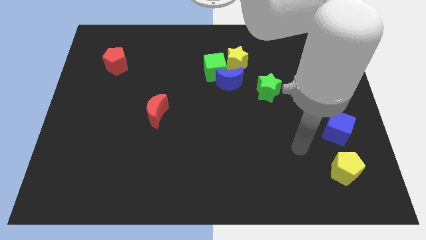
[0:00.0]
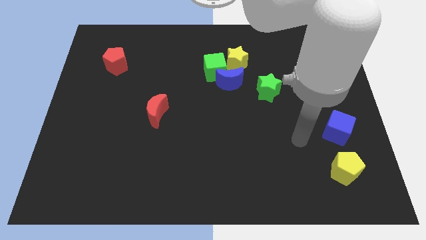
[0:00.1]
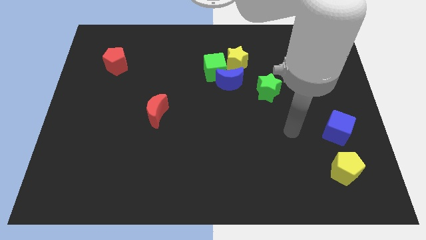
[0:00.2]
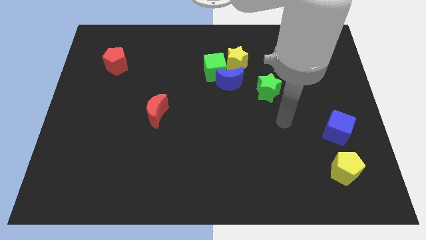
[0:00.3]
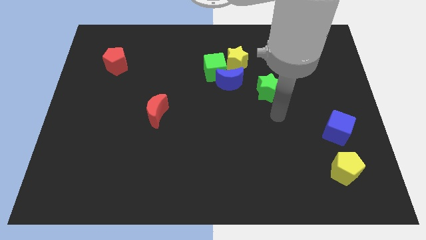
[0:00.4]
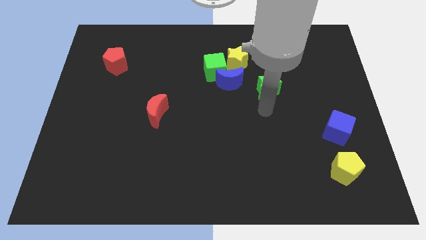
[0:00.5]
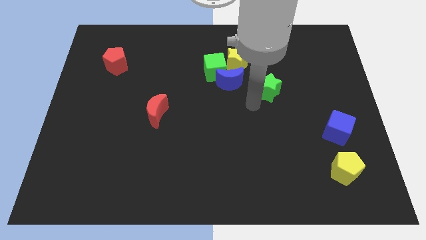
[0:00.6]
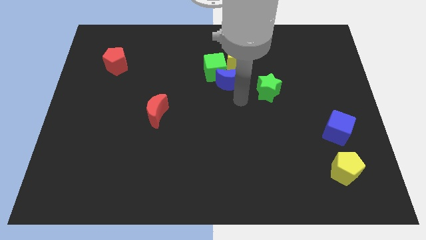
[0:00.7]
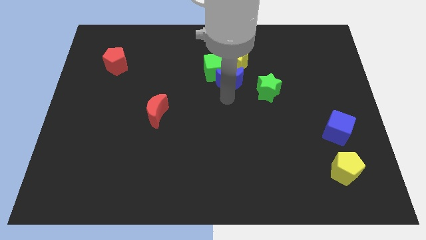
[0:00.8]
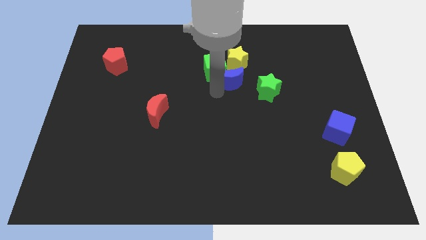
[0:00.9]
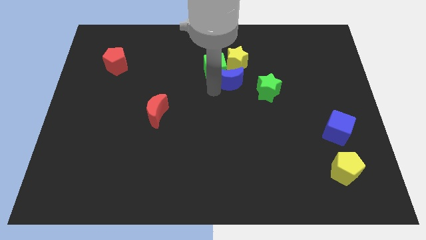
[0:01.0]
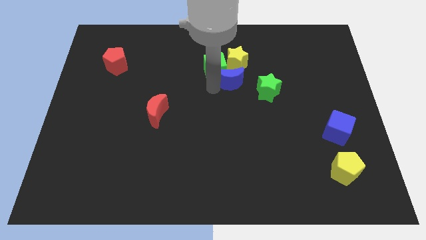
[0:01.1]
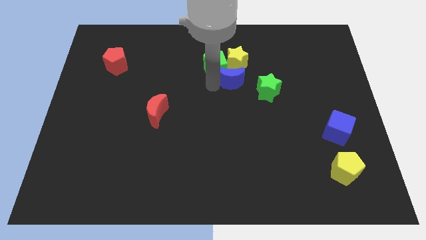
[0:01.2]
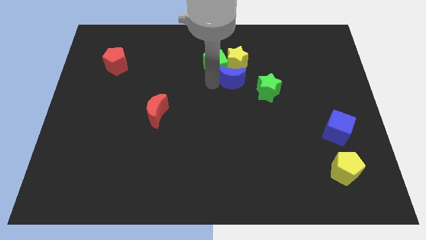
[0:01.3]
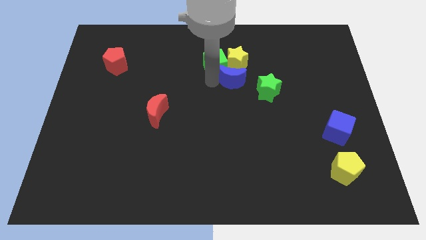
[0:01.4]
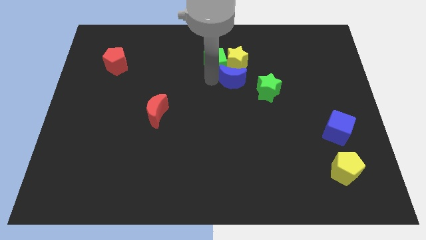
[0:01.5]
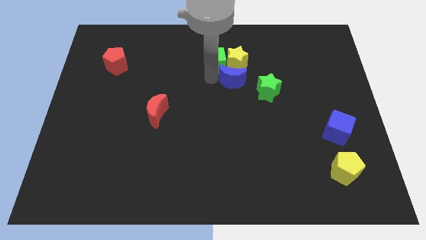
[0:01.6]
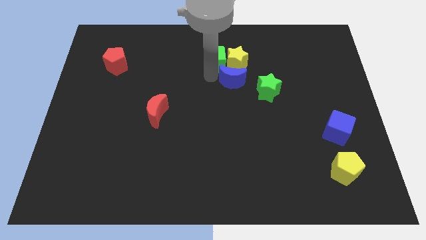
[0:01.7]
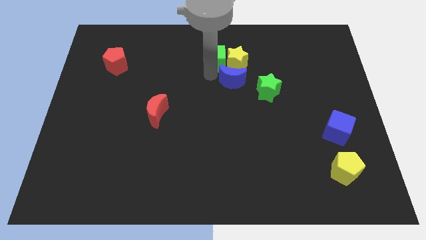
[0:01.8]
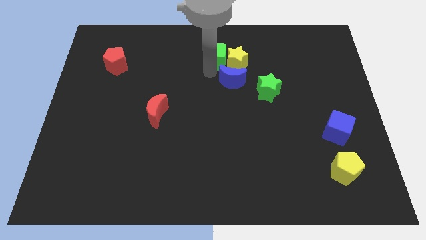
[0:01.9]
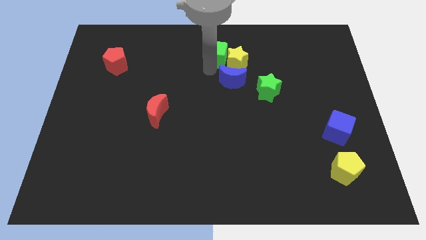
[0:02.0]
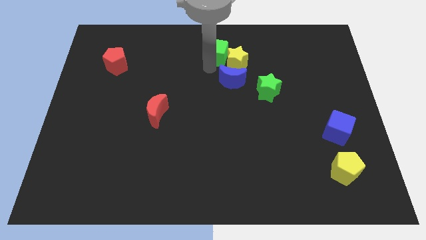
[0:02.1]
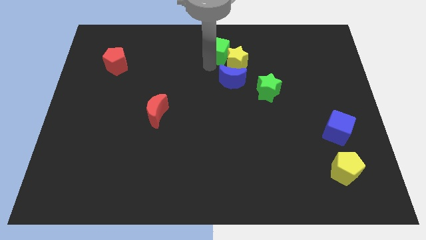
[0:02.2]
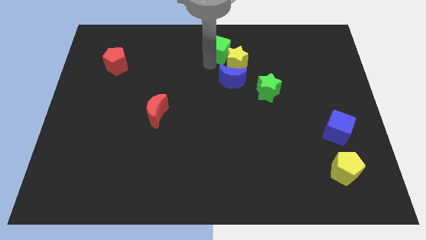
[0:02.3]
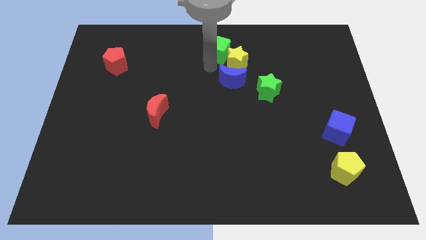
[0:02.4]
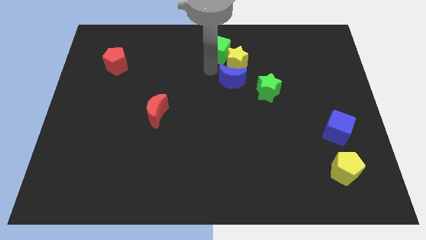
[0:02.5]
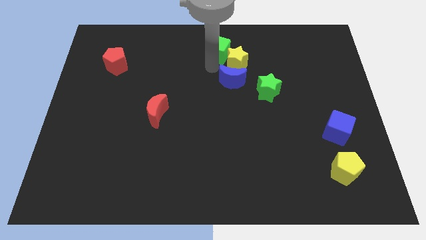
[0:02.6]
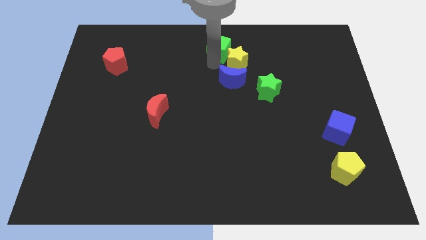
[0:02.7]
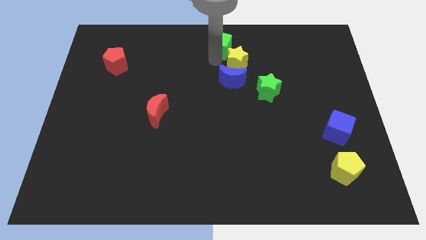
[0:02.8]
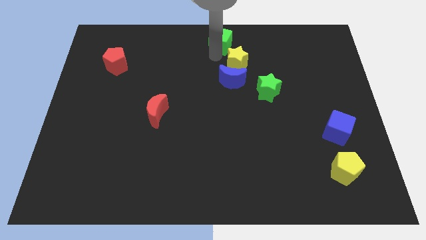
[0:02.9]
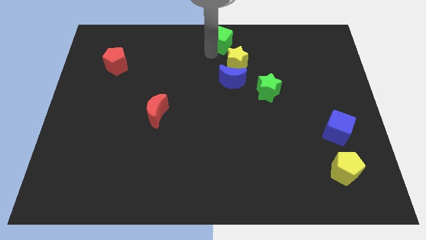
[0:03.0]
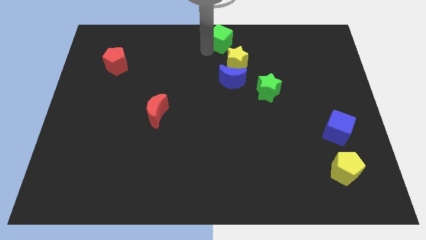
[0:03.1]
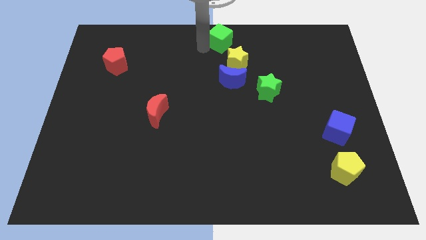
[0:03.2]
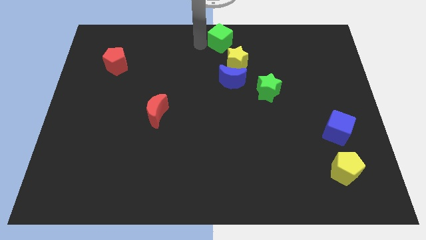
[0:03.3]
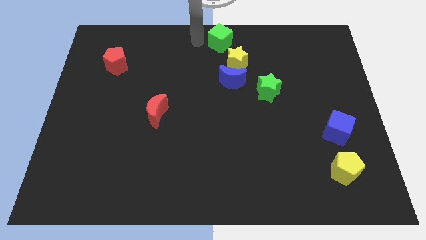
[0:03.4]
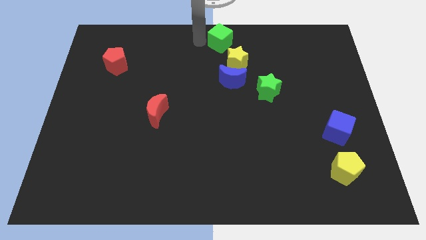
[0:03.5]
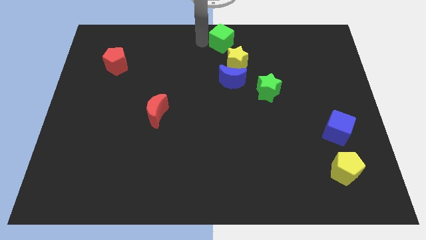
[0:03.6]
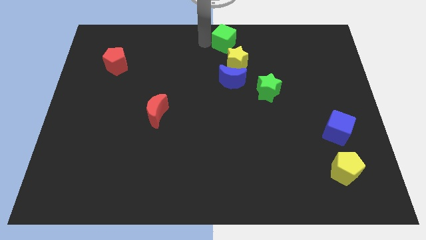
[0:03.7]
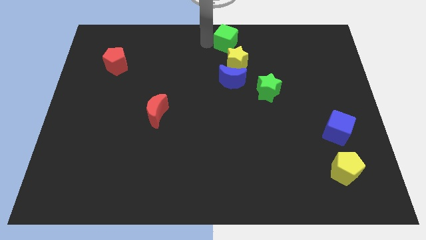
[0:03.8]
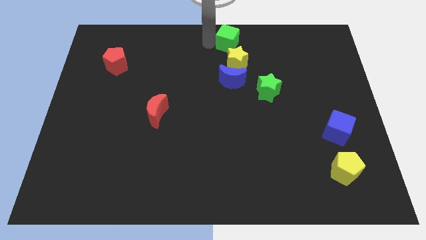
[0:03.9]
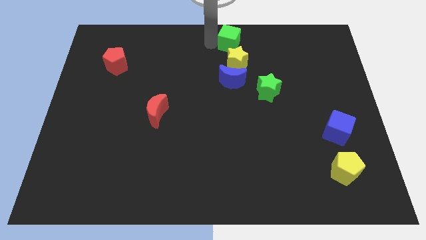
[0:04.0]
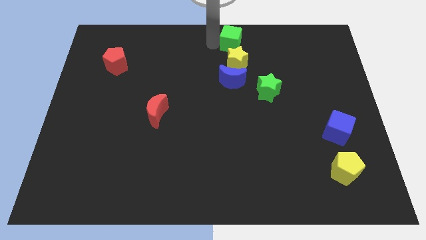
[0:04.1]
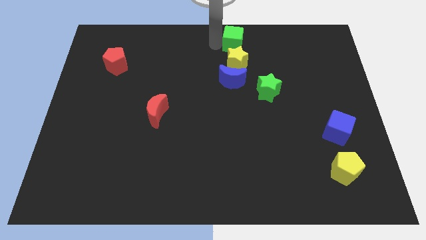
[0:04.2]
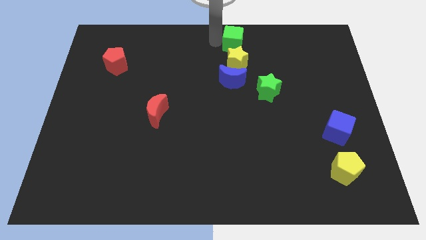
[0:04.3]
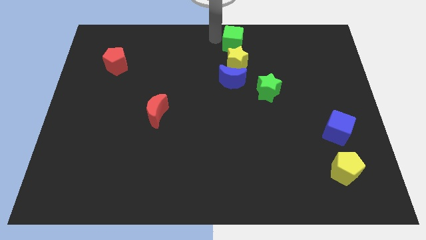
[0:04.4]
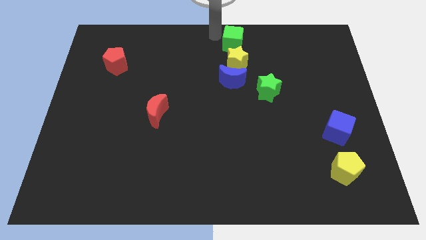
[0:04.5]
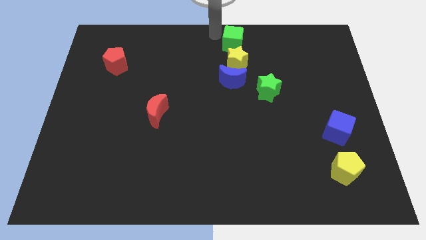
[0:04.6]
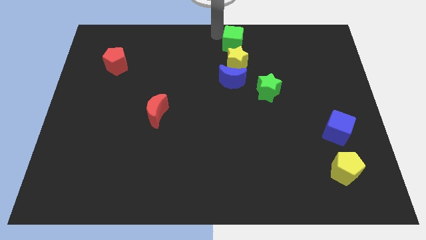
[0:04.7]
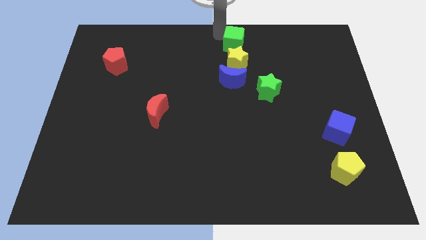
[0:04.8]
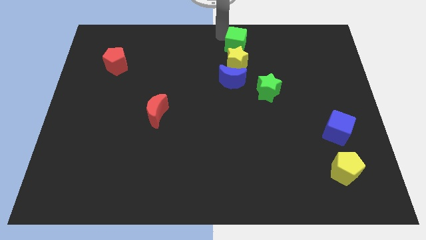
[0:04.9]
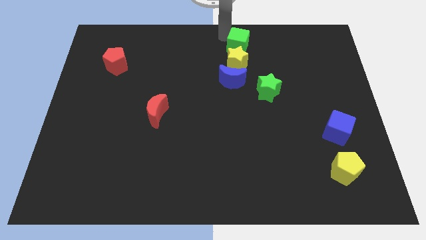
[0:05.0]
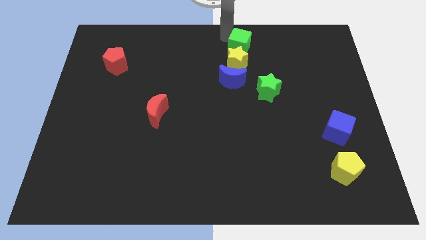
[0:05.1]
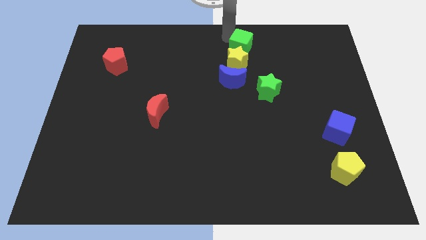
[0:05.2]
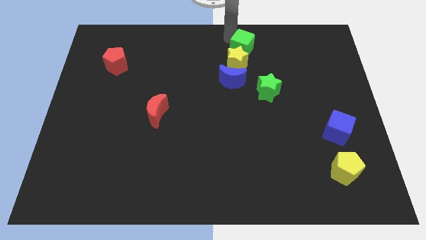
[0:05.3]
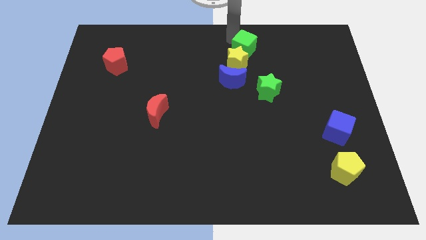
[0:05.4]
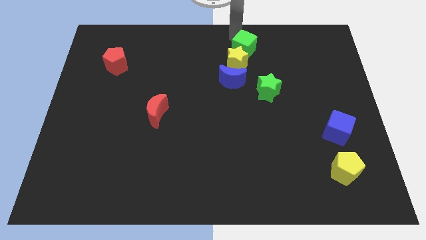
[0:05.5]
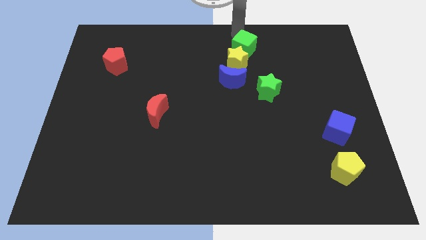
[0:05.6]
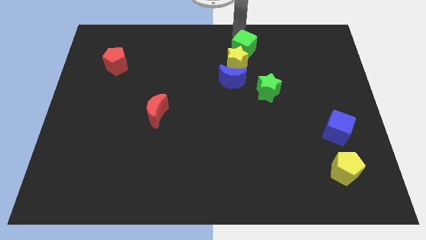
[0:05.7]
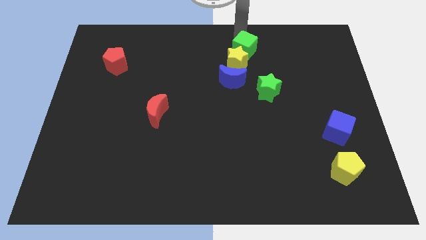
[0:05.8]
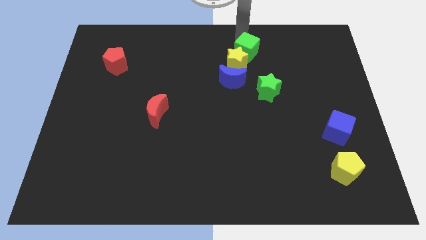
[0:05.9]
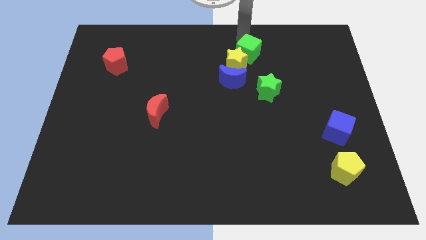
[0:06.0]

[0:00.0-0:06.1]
put the green cube to the top right of the blue moon

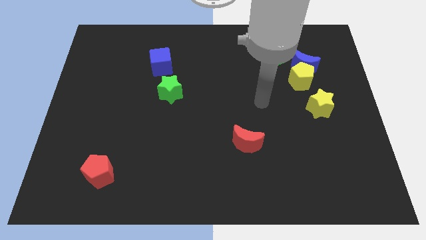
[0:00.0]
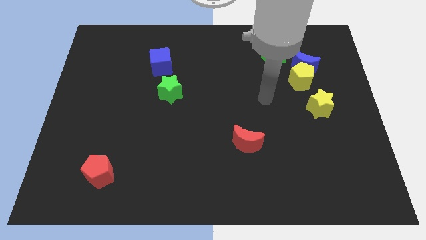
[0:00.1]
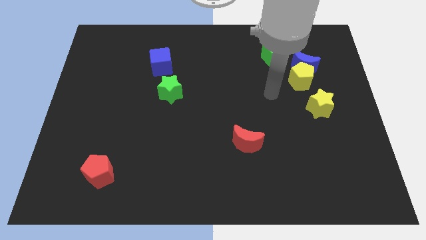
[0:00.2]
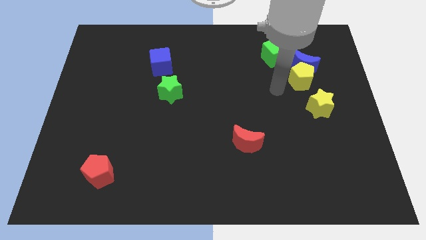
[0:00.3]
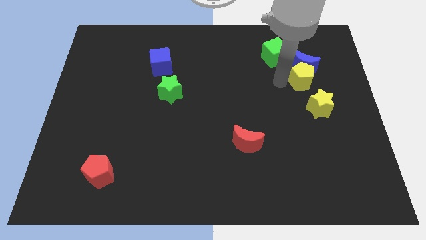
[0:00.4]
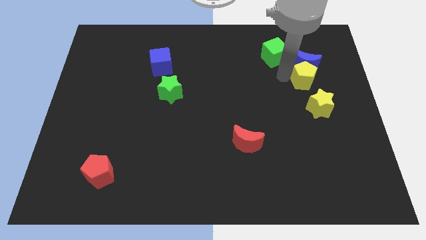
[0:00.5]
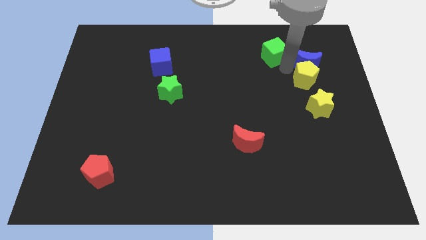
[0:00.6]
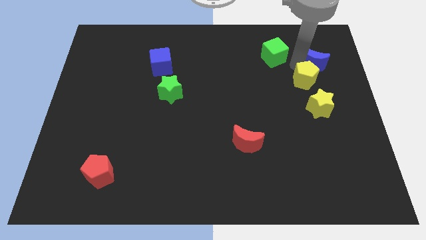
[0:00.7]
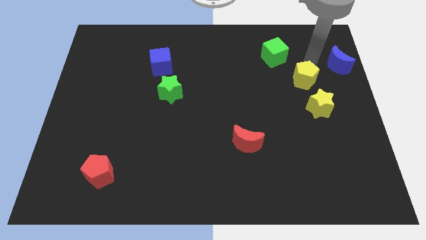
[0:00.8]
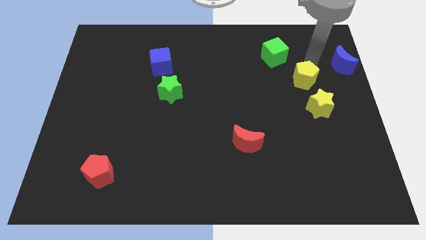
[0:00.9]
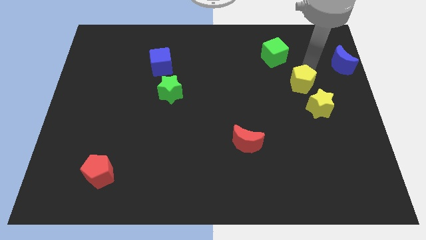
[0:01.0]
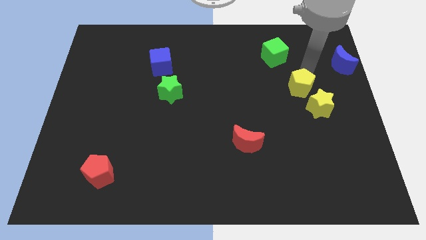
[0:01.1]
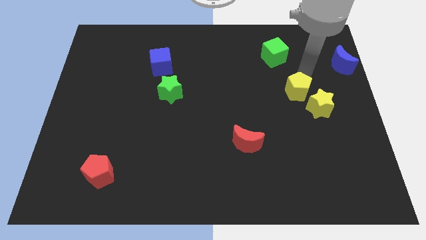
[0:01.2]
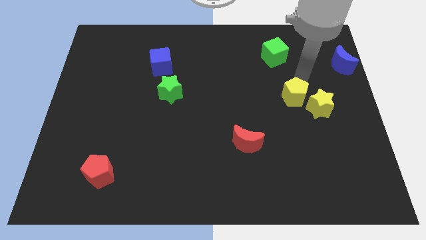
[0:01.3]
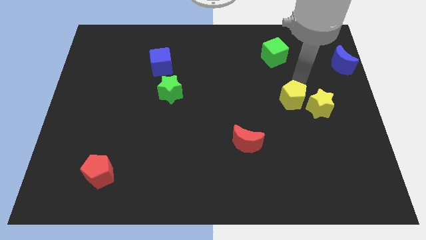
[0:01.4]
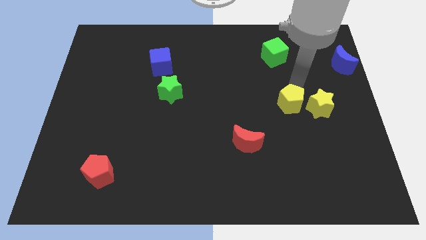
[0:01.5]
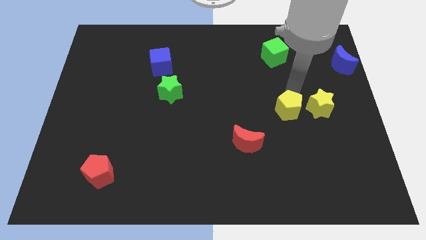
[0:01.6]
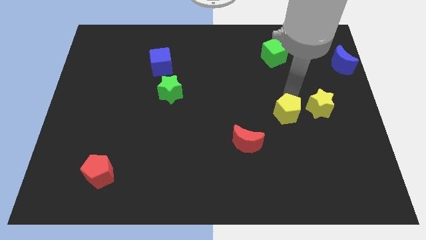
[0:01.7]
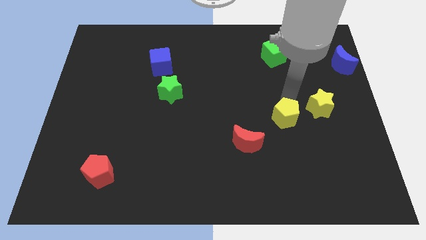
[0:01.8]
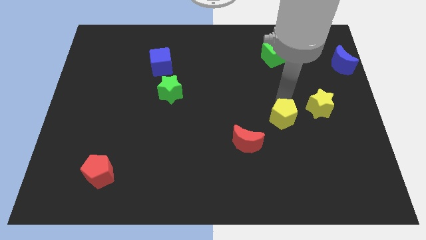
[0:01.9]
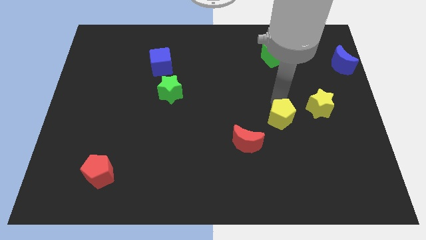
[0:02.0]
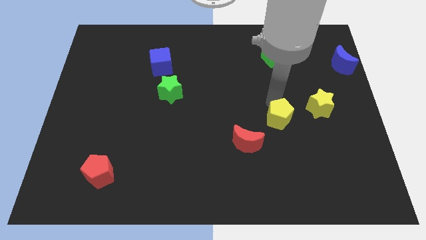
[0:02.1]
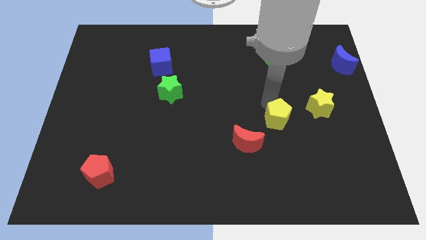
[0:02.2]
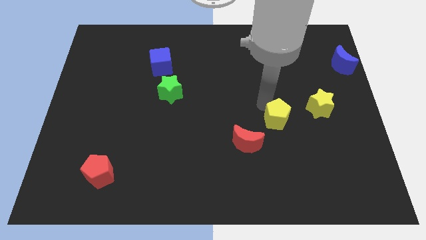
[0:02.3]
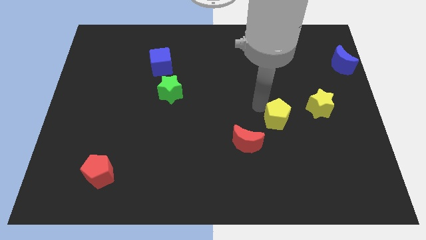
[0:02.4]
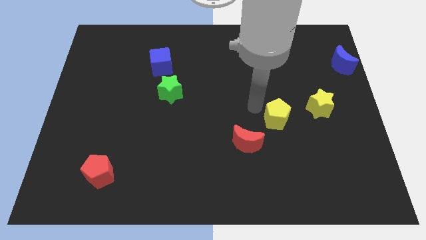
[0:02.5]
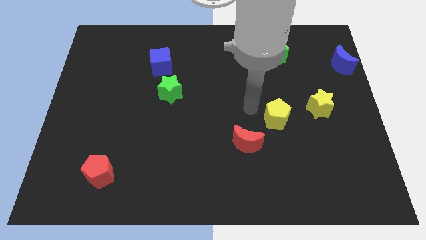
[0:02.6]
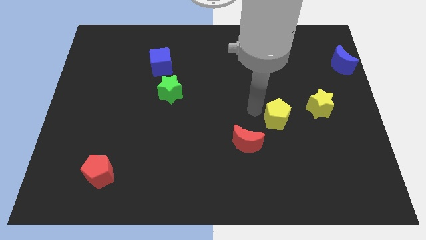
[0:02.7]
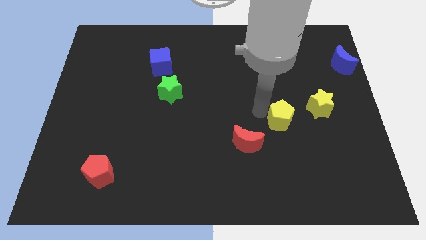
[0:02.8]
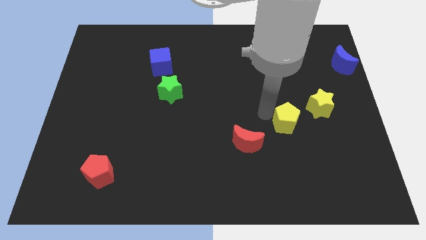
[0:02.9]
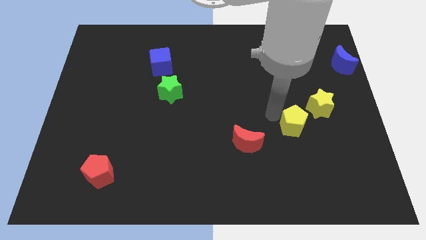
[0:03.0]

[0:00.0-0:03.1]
slide the yellow pentagon right of the red moon
